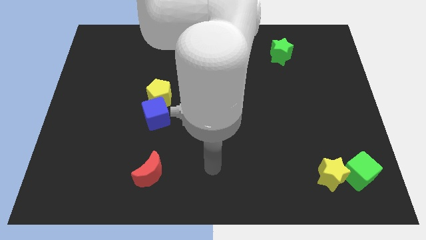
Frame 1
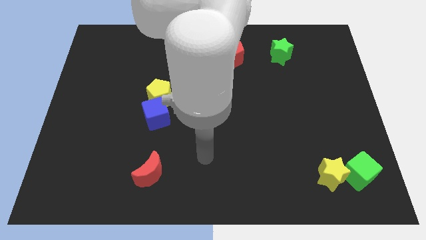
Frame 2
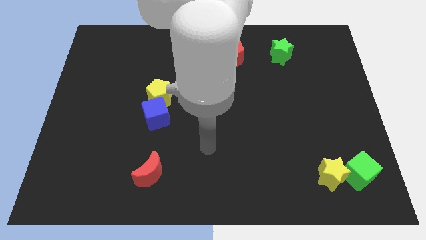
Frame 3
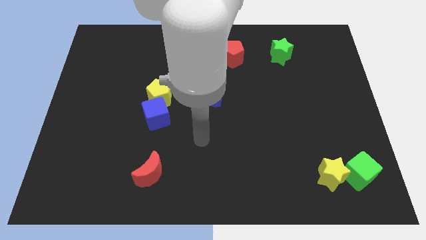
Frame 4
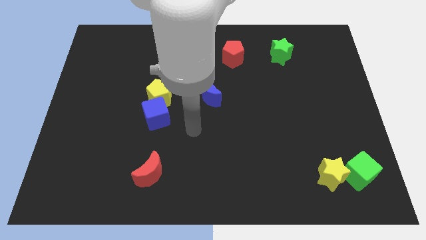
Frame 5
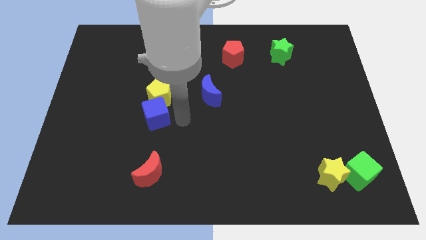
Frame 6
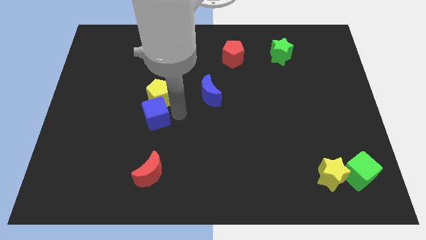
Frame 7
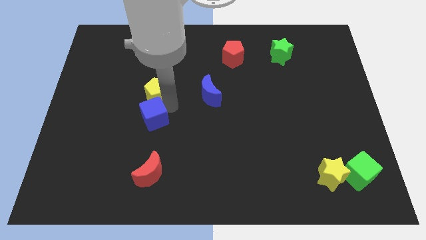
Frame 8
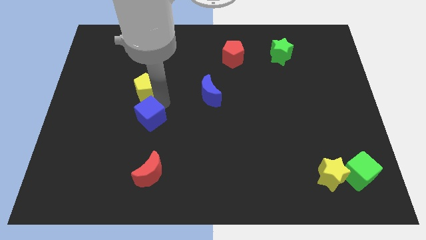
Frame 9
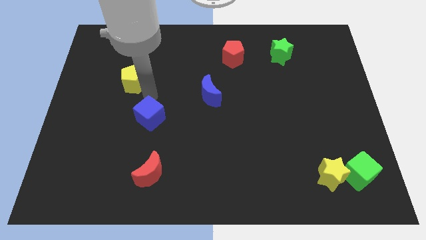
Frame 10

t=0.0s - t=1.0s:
pull the blue cube apart from the yellow pentagon

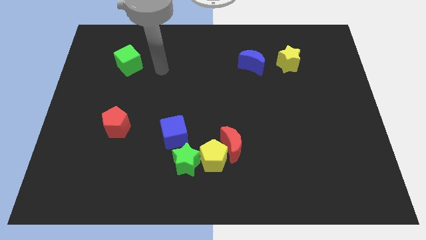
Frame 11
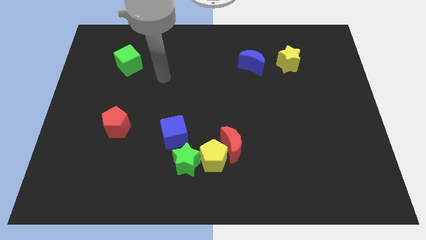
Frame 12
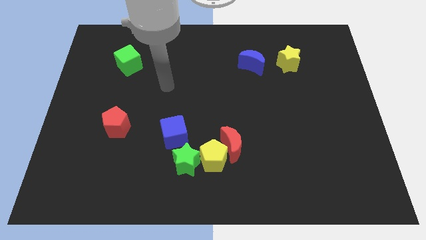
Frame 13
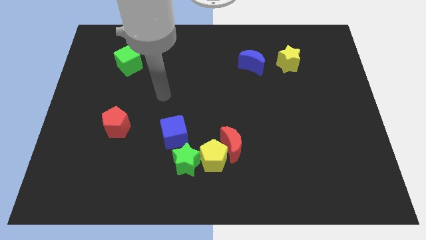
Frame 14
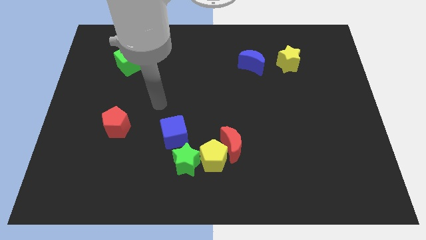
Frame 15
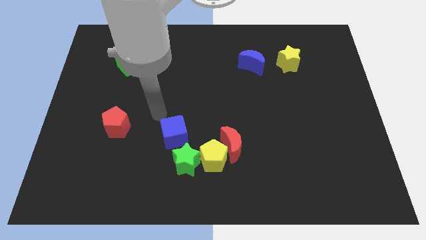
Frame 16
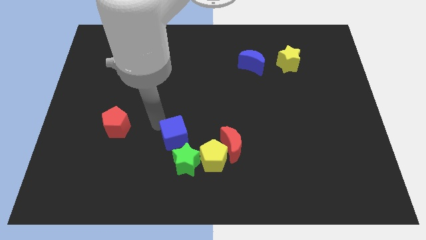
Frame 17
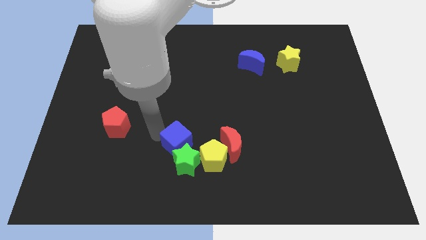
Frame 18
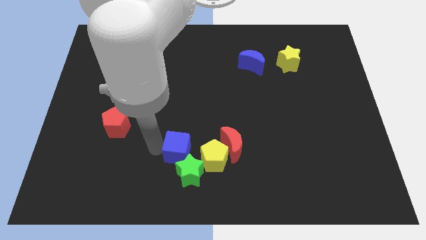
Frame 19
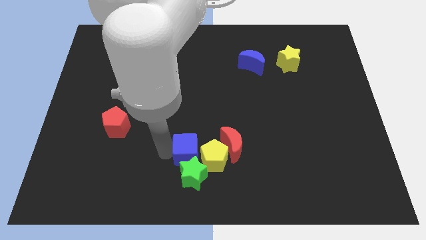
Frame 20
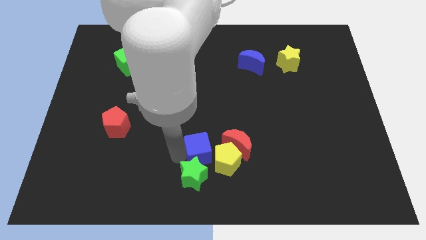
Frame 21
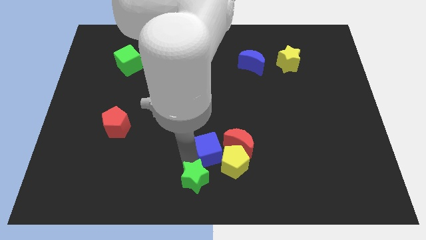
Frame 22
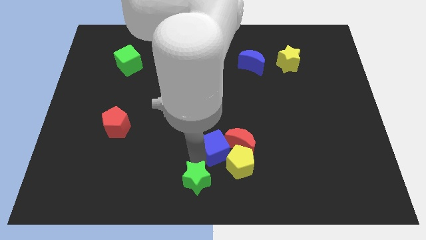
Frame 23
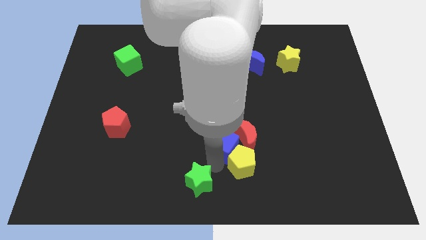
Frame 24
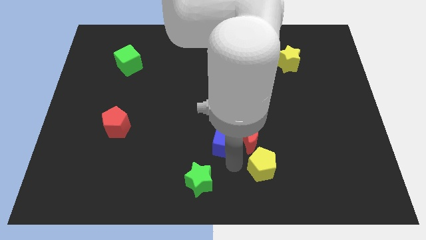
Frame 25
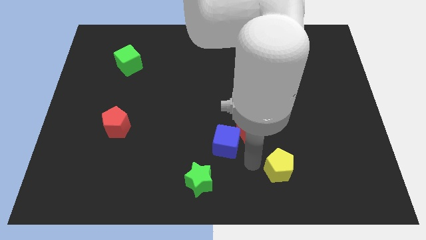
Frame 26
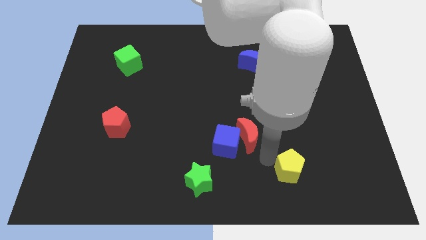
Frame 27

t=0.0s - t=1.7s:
move the red moon away from the yellow pentagon

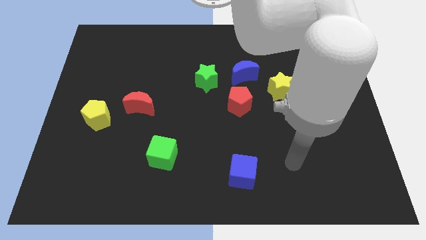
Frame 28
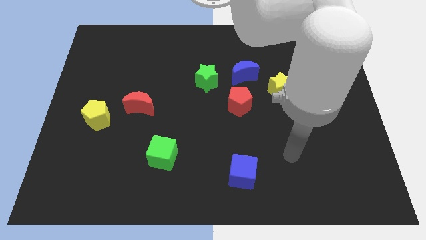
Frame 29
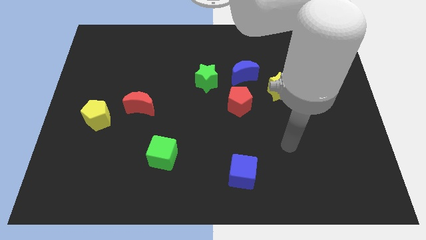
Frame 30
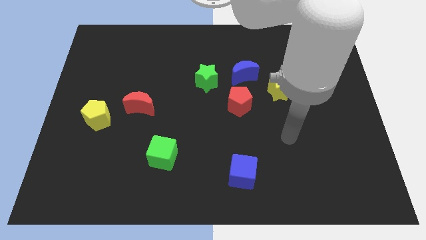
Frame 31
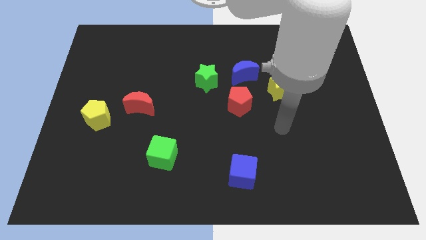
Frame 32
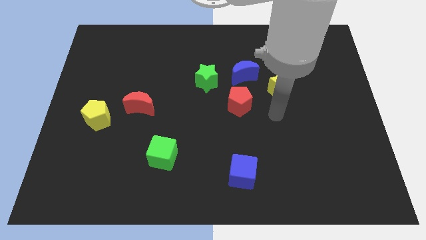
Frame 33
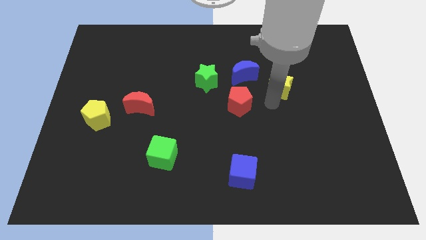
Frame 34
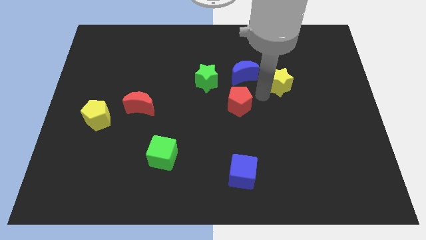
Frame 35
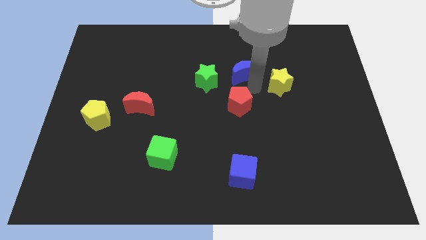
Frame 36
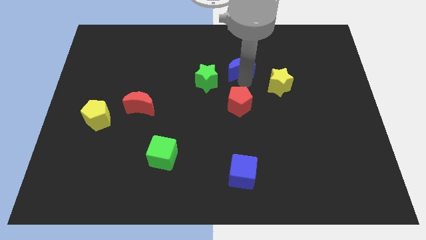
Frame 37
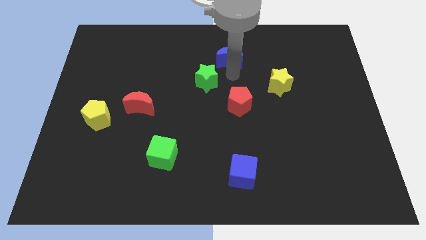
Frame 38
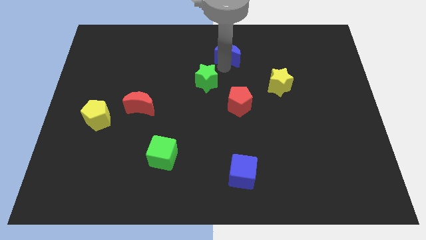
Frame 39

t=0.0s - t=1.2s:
move the green star away from the blue moon

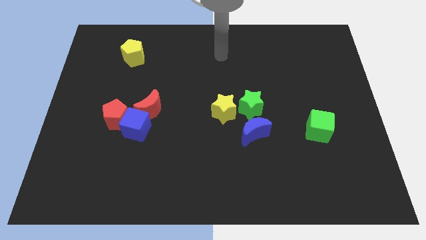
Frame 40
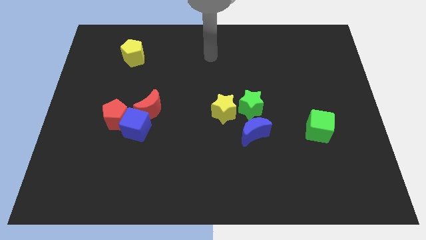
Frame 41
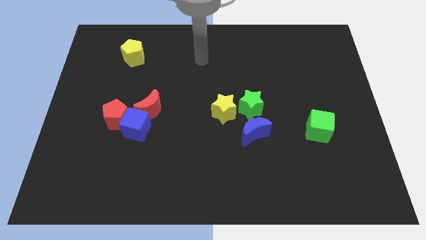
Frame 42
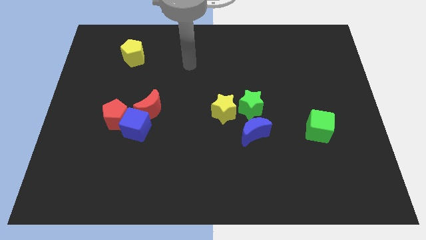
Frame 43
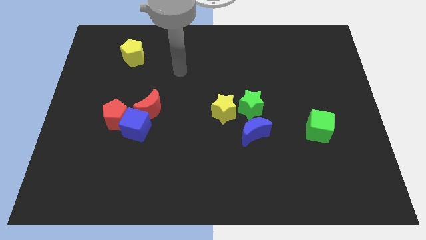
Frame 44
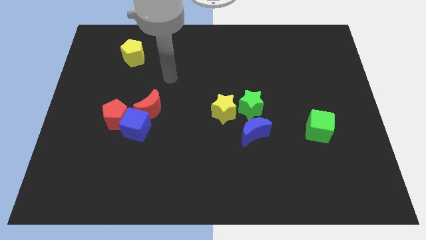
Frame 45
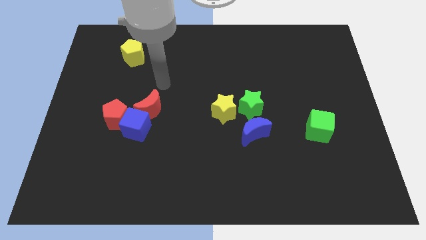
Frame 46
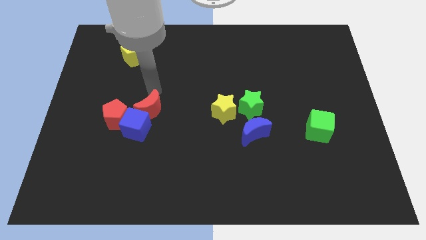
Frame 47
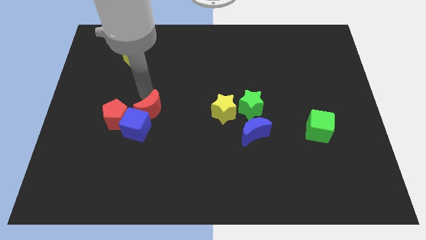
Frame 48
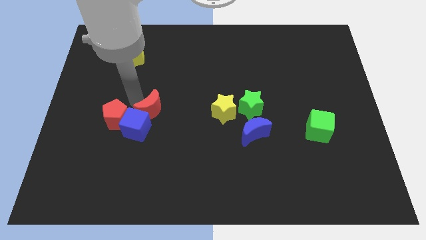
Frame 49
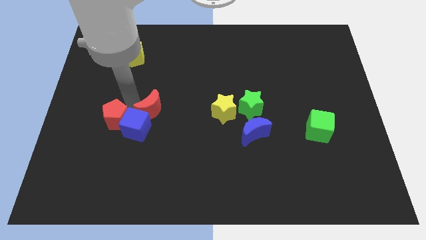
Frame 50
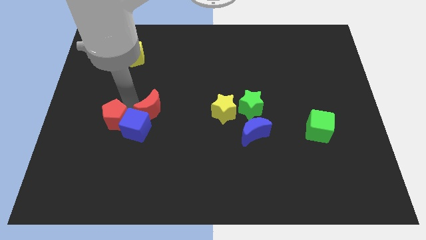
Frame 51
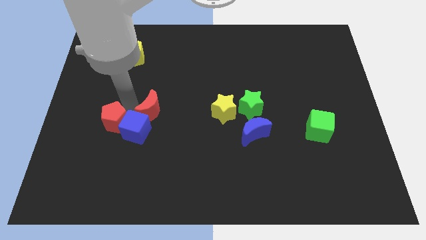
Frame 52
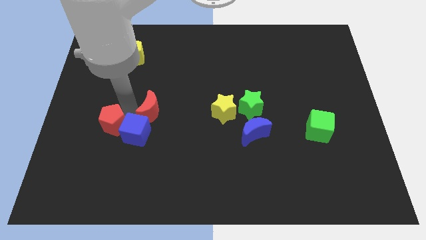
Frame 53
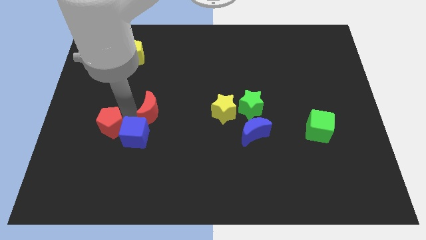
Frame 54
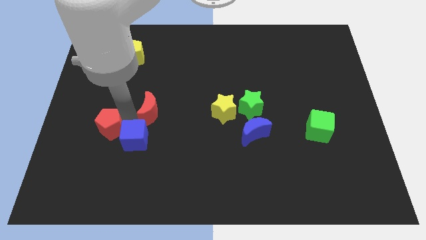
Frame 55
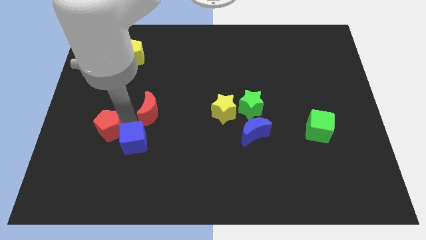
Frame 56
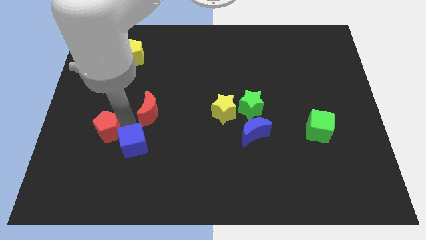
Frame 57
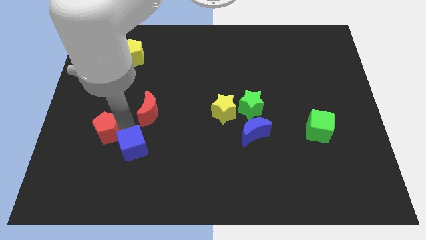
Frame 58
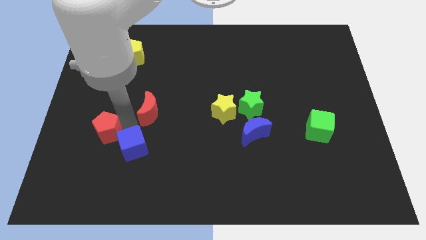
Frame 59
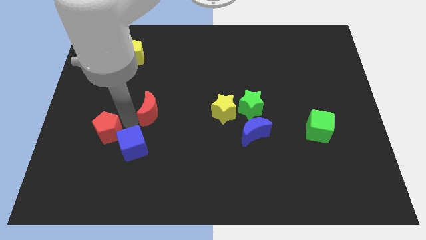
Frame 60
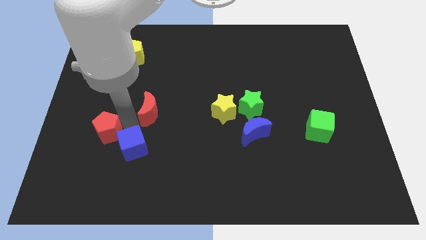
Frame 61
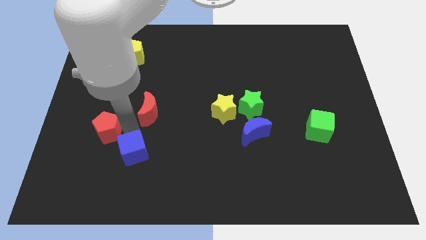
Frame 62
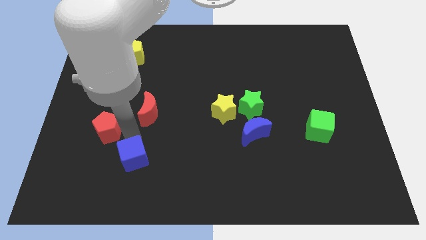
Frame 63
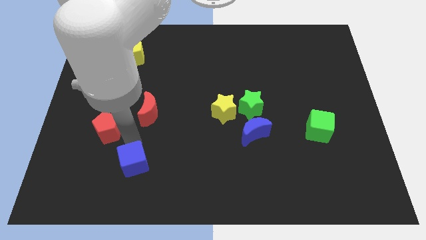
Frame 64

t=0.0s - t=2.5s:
pull the blue cube apart from the red pentagon and red moon

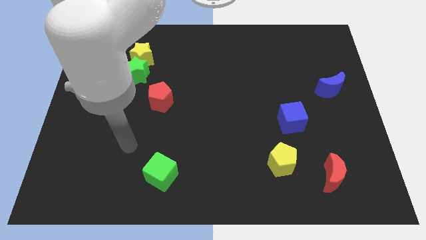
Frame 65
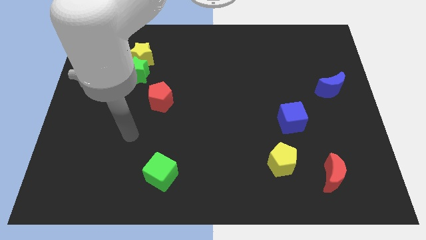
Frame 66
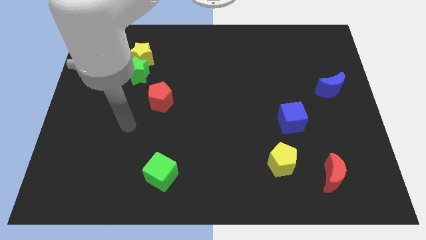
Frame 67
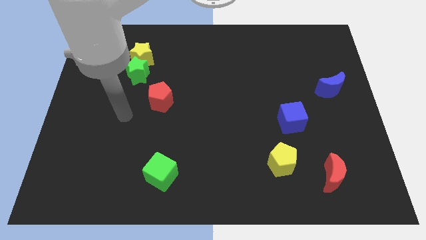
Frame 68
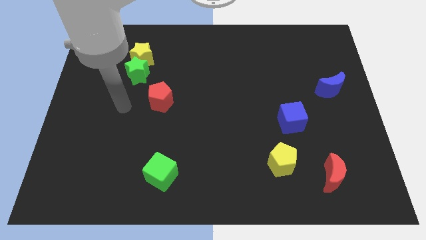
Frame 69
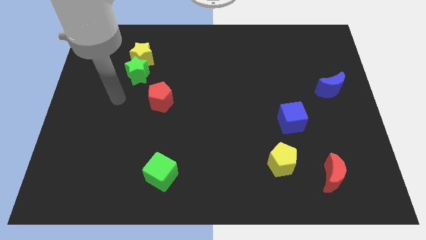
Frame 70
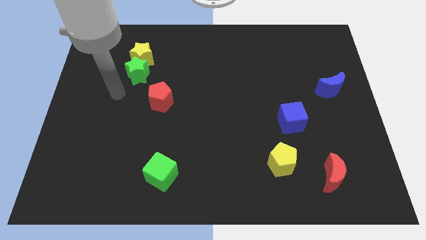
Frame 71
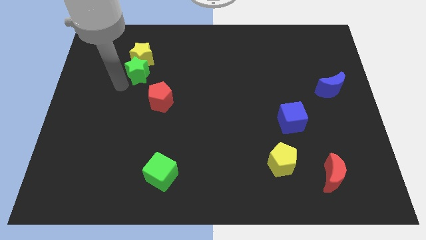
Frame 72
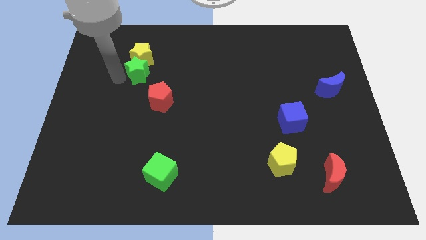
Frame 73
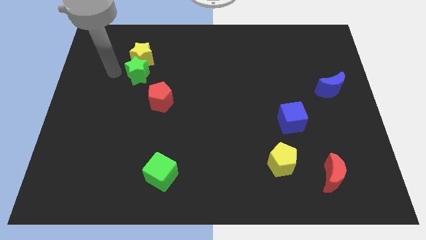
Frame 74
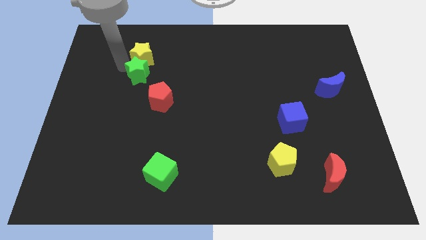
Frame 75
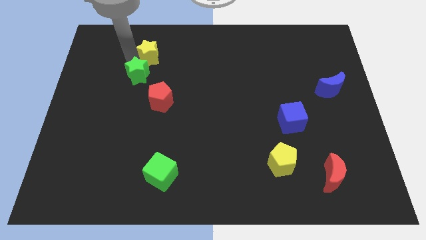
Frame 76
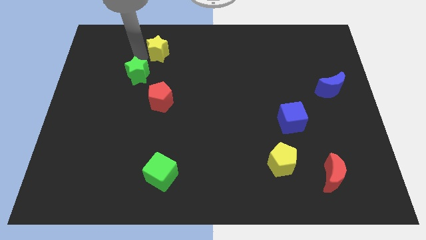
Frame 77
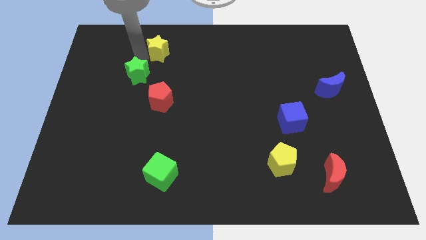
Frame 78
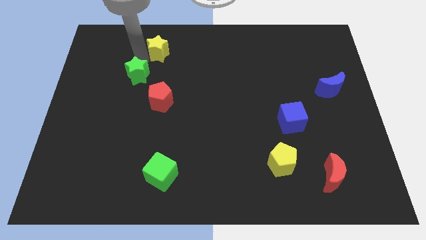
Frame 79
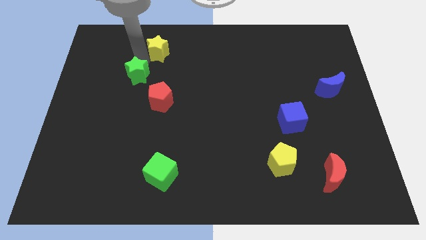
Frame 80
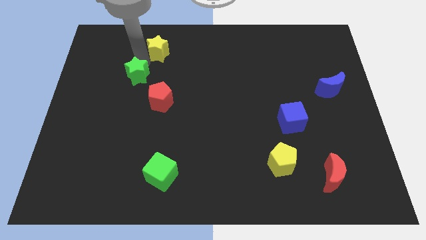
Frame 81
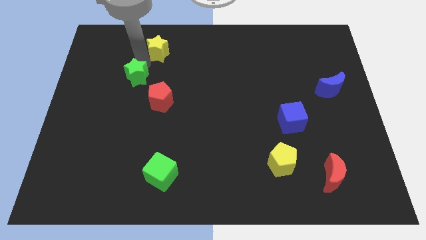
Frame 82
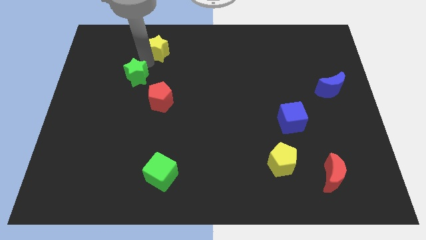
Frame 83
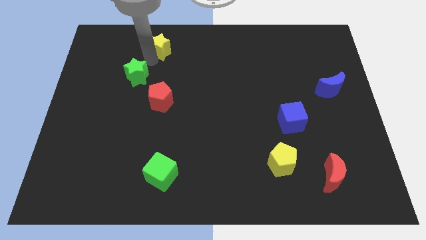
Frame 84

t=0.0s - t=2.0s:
pull the green star apart from the yellow star

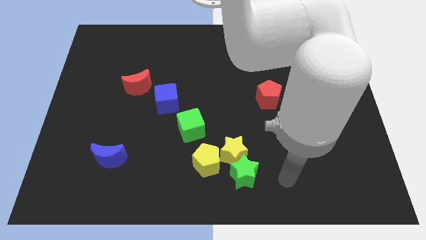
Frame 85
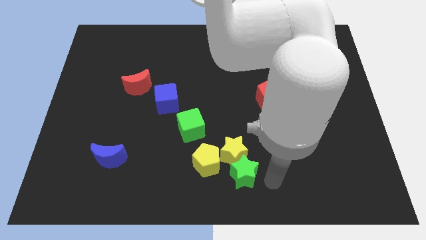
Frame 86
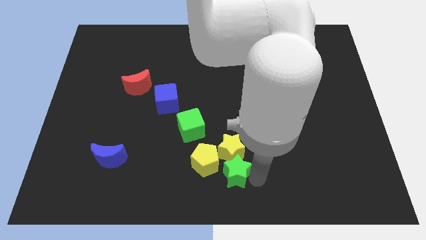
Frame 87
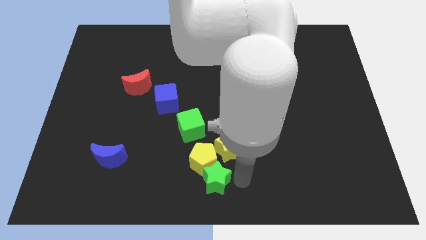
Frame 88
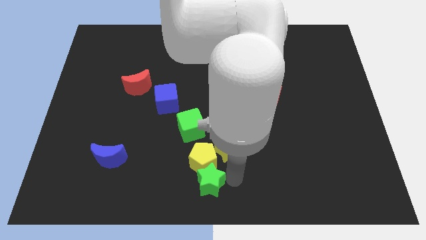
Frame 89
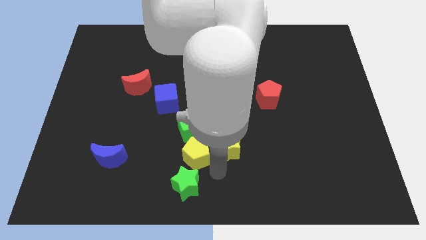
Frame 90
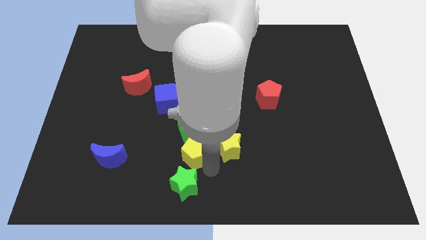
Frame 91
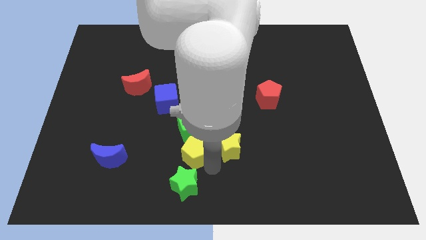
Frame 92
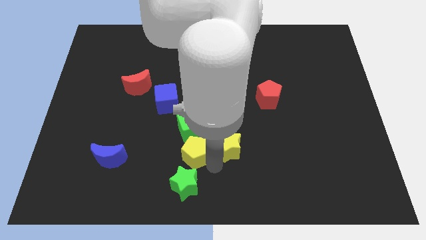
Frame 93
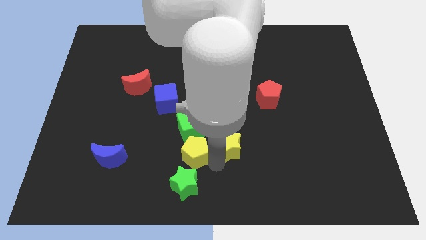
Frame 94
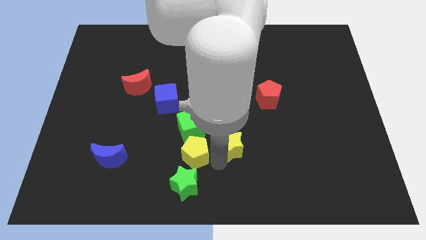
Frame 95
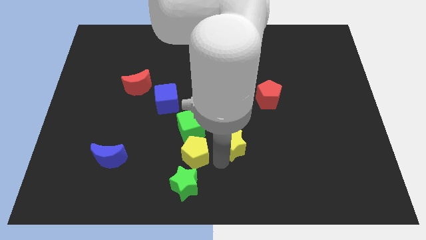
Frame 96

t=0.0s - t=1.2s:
separate the yellow star from the yellow pentagon and green star
